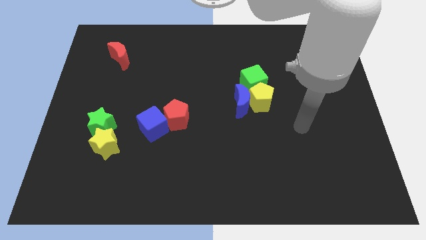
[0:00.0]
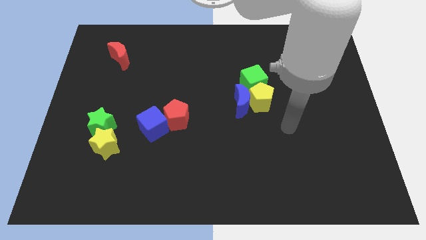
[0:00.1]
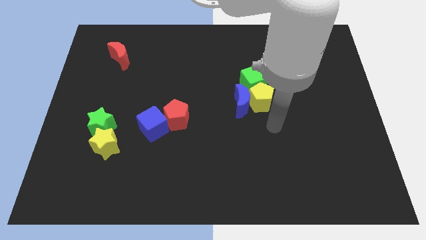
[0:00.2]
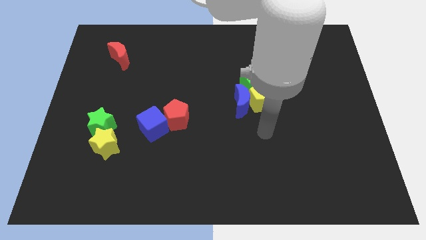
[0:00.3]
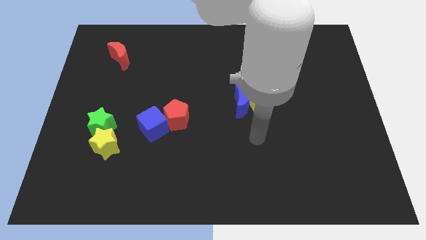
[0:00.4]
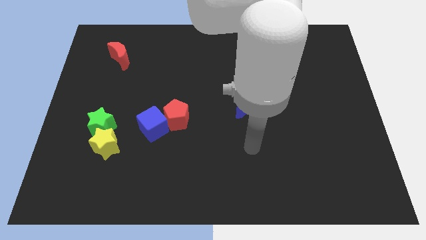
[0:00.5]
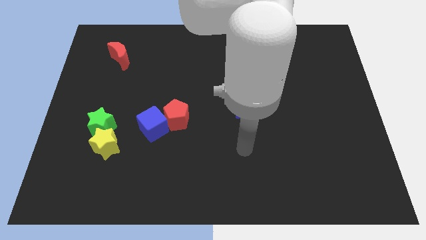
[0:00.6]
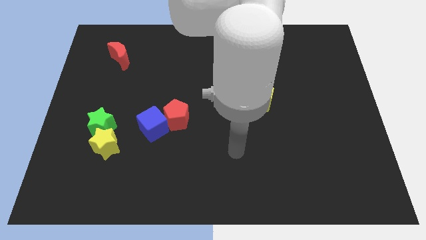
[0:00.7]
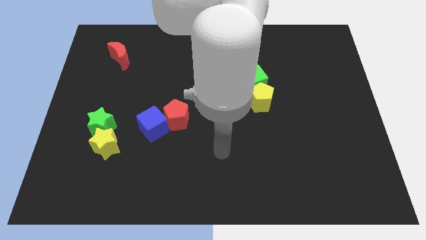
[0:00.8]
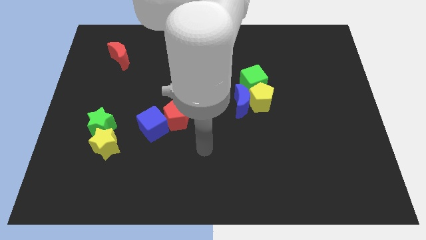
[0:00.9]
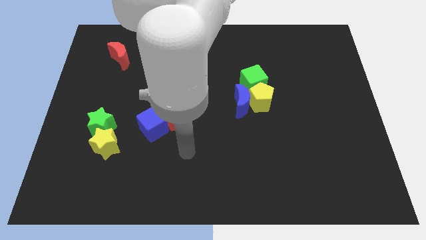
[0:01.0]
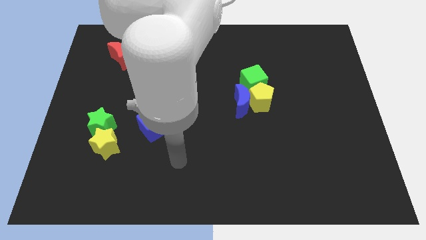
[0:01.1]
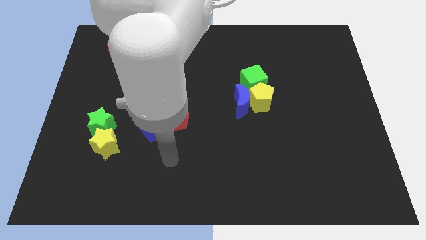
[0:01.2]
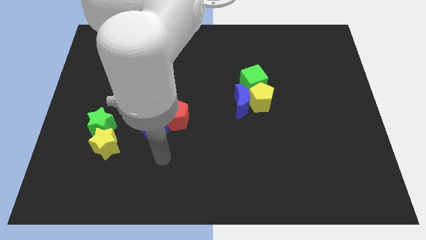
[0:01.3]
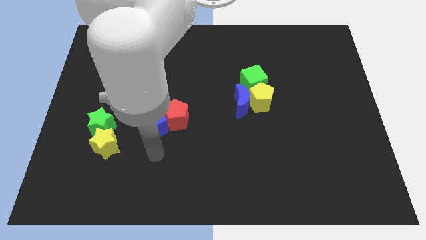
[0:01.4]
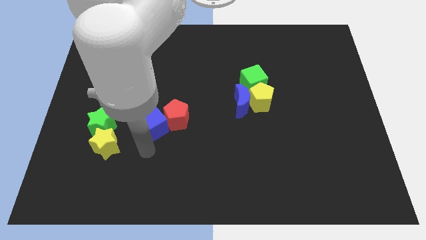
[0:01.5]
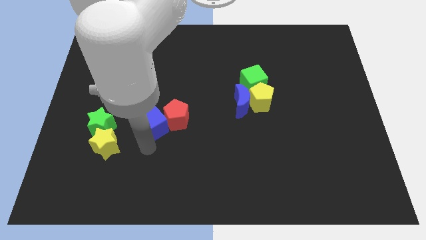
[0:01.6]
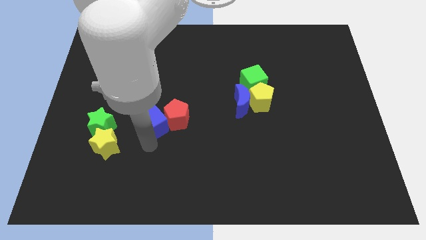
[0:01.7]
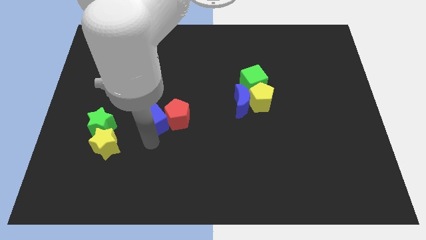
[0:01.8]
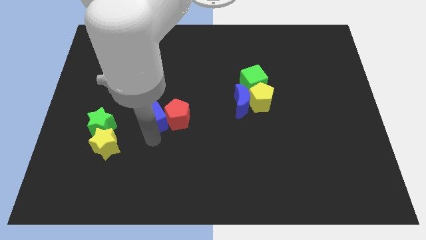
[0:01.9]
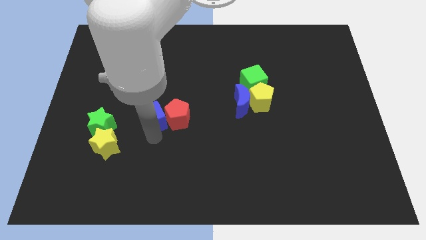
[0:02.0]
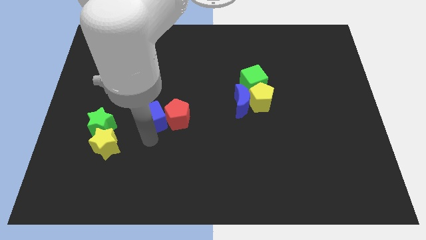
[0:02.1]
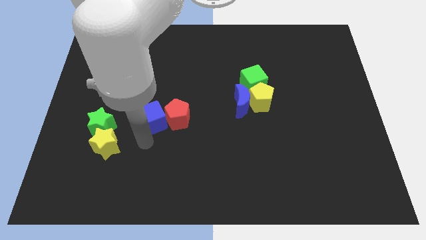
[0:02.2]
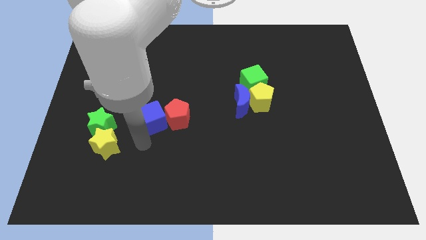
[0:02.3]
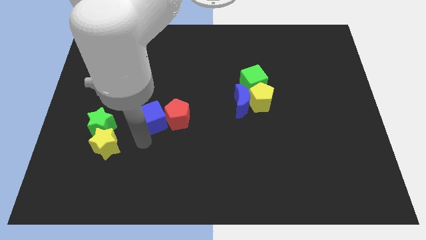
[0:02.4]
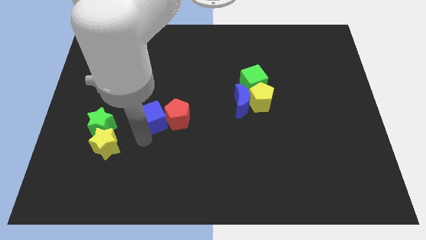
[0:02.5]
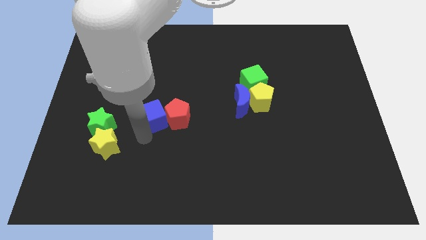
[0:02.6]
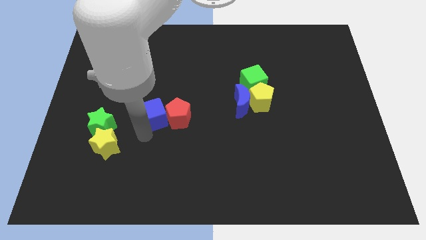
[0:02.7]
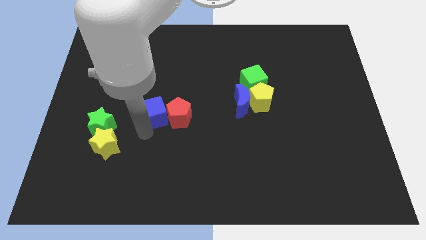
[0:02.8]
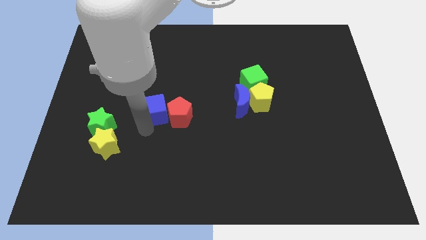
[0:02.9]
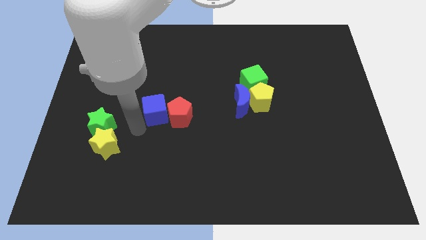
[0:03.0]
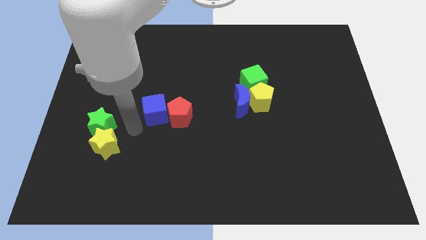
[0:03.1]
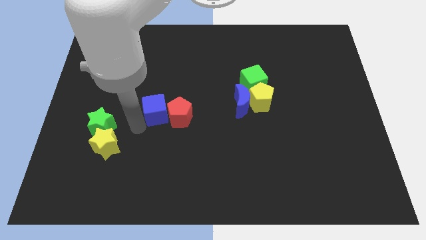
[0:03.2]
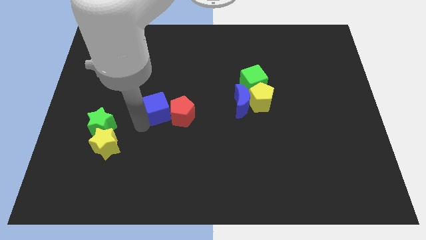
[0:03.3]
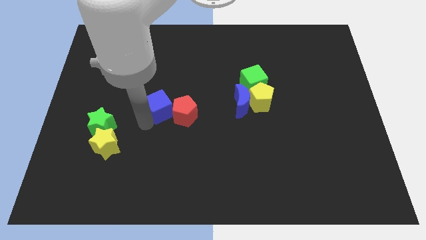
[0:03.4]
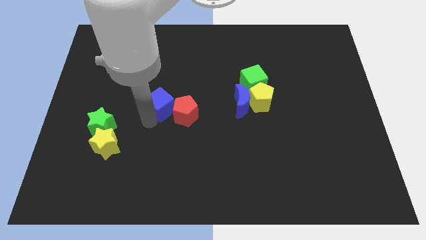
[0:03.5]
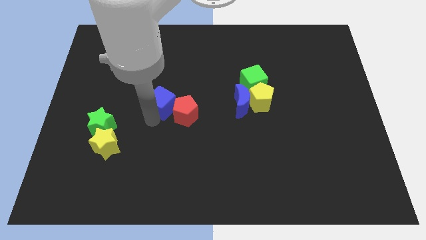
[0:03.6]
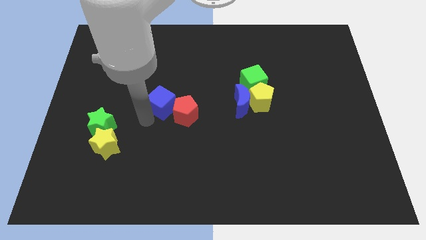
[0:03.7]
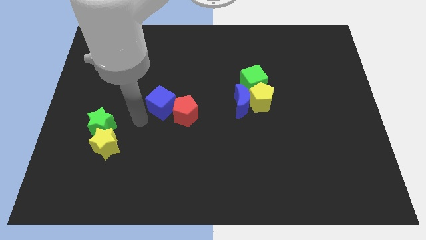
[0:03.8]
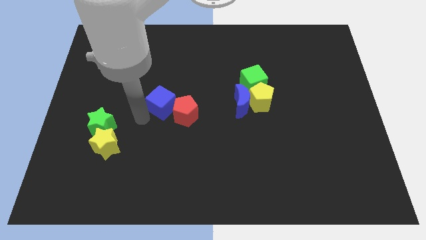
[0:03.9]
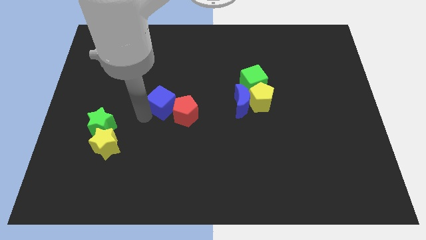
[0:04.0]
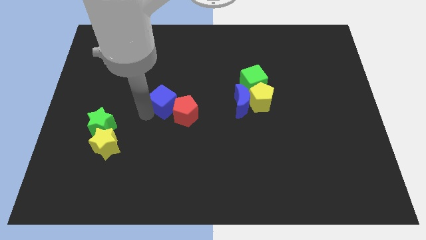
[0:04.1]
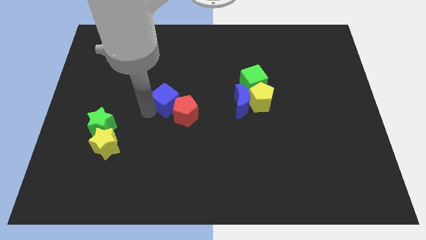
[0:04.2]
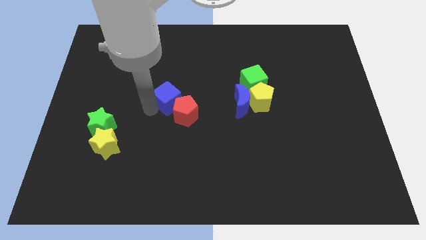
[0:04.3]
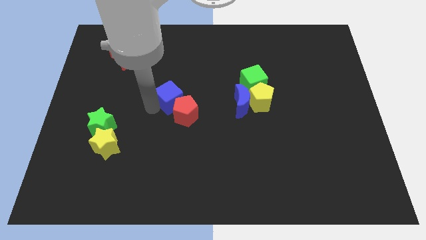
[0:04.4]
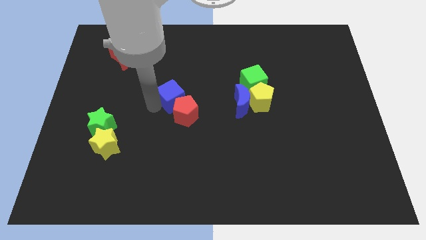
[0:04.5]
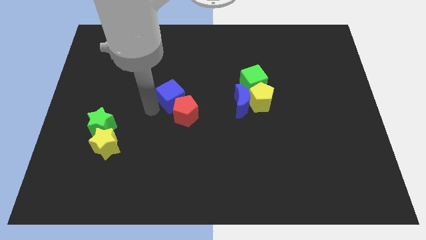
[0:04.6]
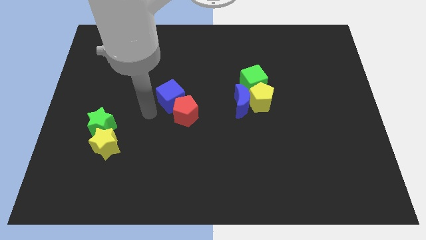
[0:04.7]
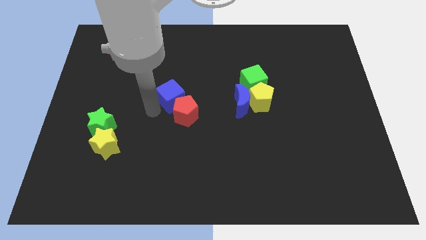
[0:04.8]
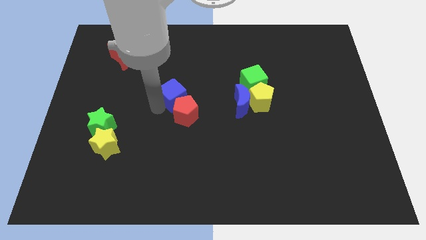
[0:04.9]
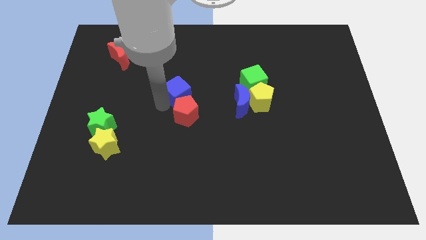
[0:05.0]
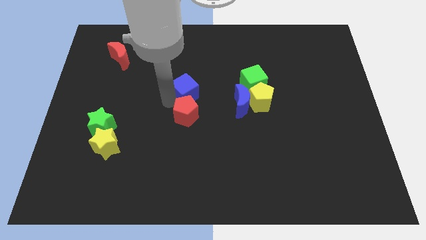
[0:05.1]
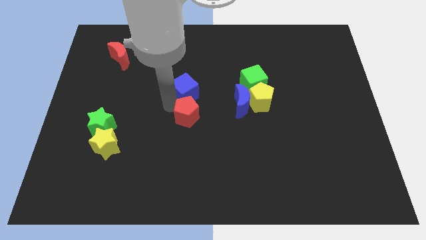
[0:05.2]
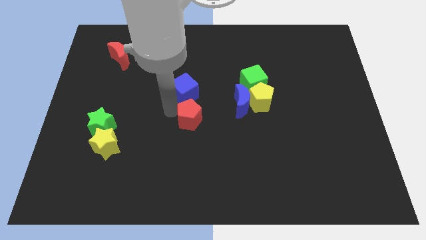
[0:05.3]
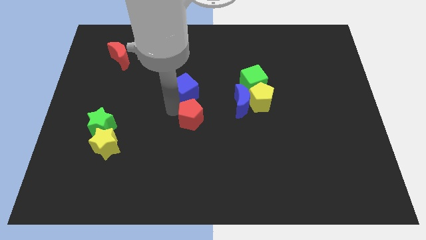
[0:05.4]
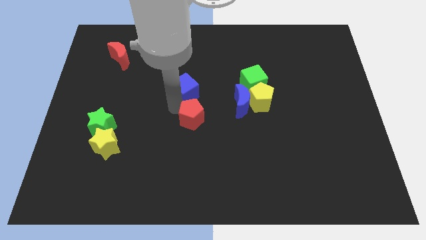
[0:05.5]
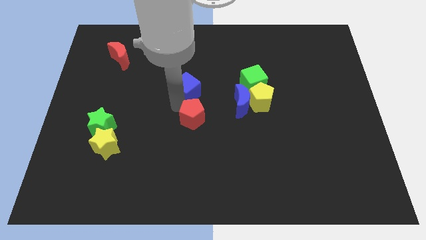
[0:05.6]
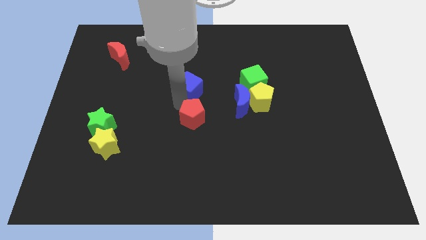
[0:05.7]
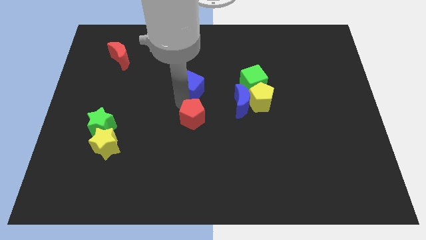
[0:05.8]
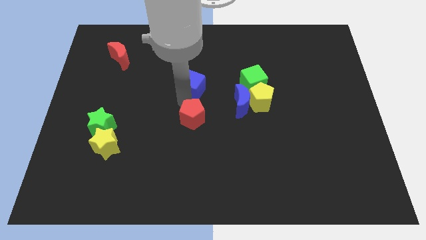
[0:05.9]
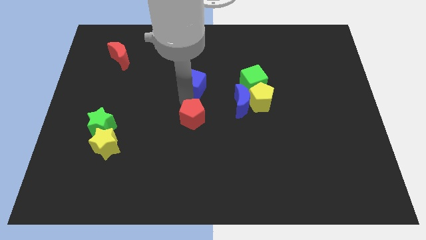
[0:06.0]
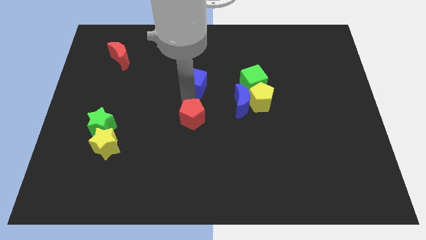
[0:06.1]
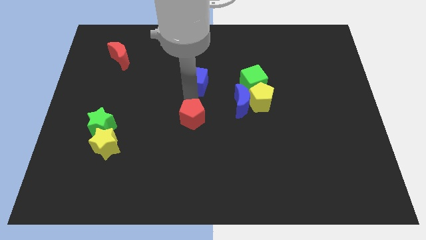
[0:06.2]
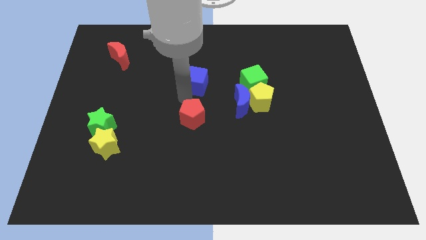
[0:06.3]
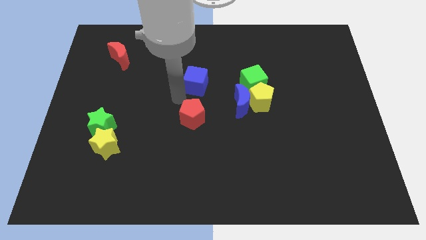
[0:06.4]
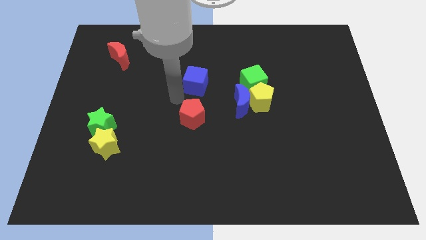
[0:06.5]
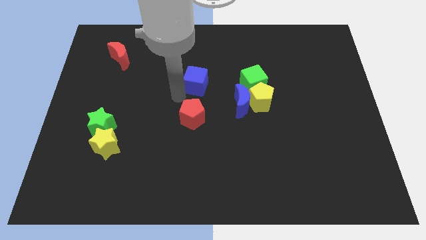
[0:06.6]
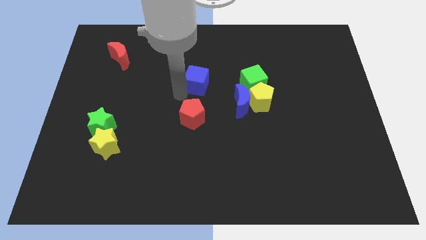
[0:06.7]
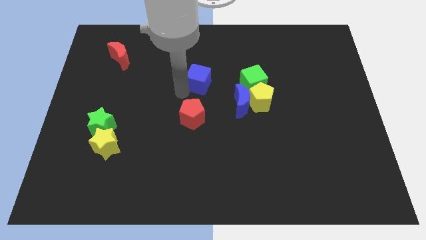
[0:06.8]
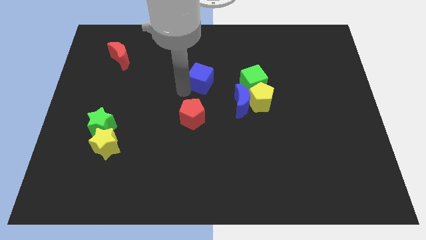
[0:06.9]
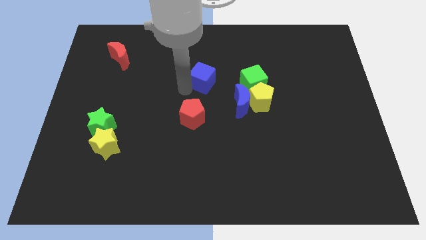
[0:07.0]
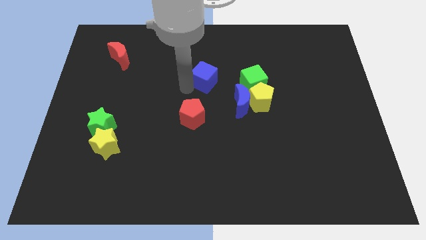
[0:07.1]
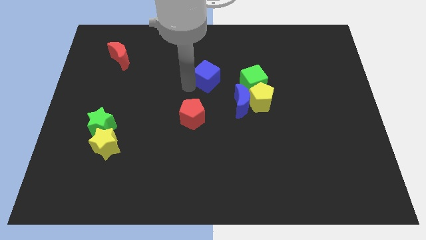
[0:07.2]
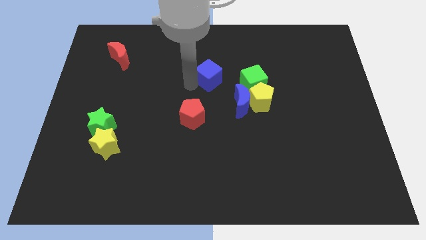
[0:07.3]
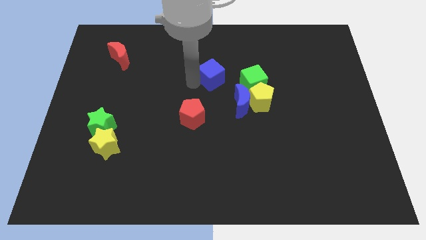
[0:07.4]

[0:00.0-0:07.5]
push the blue cube diagonally up and to the right

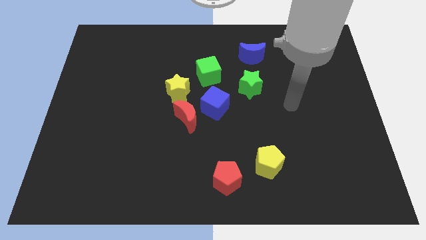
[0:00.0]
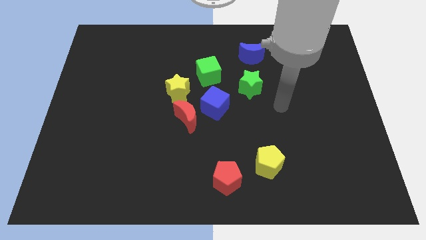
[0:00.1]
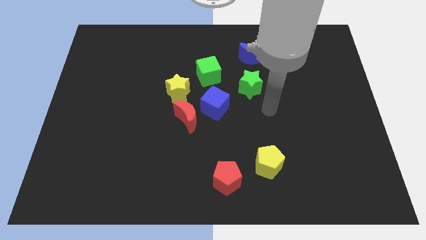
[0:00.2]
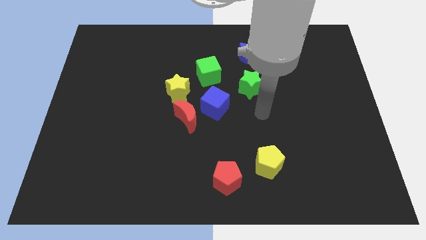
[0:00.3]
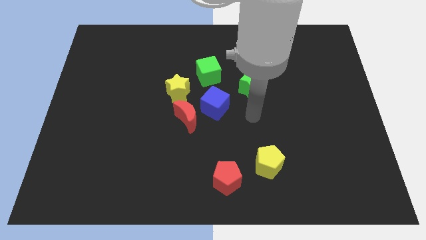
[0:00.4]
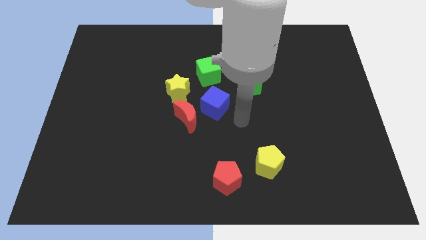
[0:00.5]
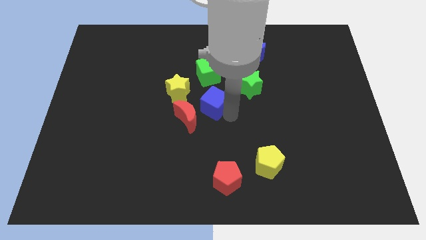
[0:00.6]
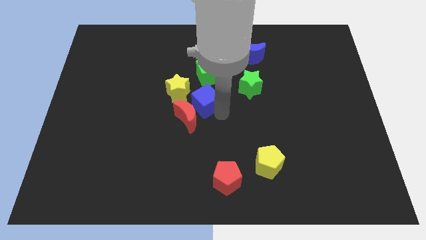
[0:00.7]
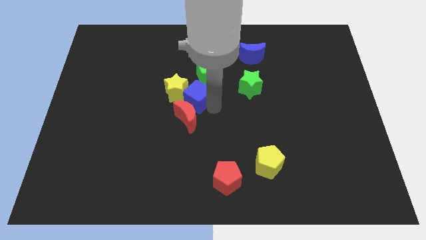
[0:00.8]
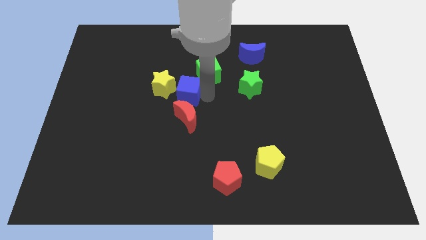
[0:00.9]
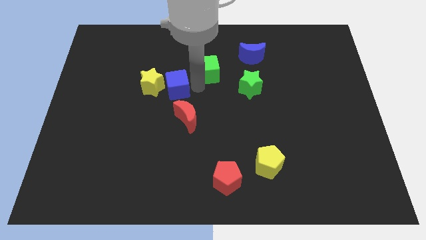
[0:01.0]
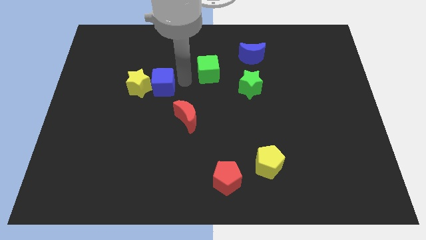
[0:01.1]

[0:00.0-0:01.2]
slightly push the yellow star left
